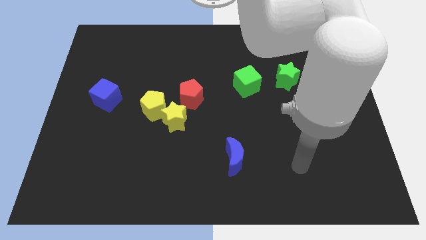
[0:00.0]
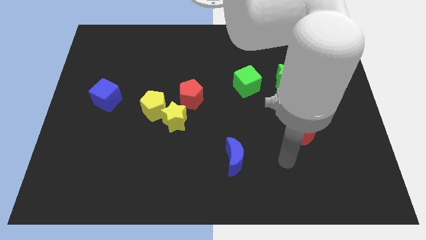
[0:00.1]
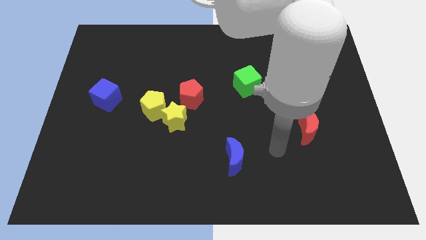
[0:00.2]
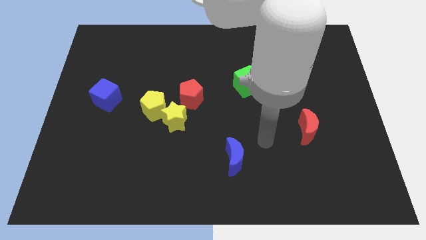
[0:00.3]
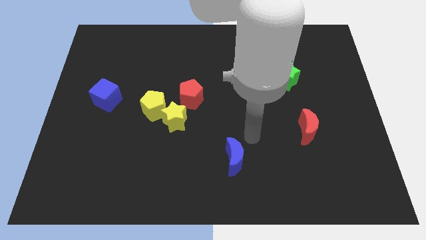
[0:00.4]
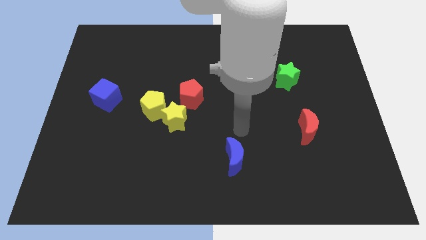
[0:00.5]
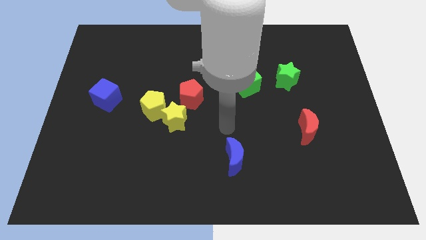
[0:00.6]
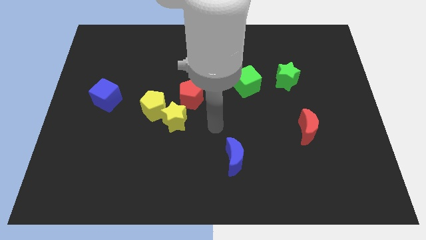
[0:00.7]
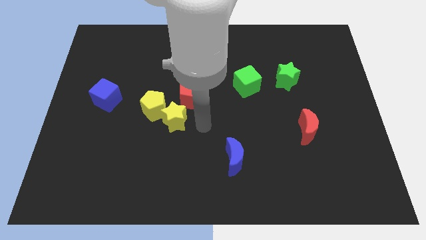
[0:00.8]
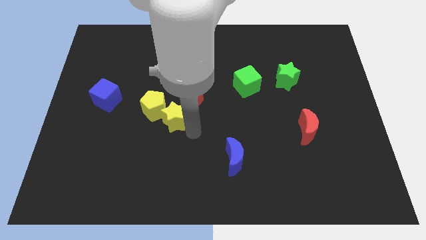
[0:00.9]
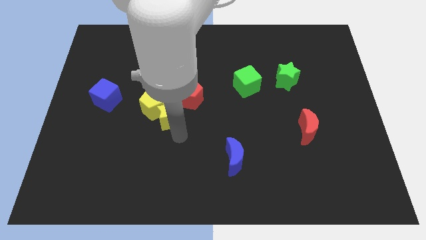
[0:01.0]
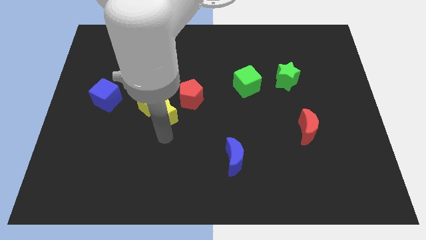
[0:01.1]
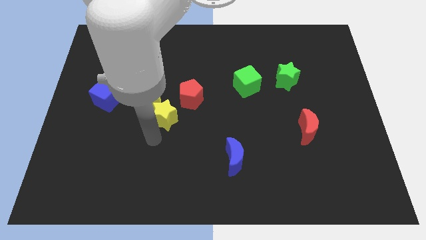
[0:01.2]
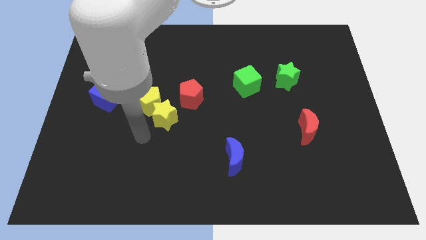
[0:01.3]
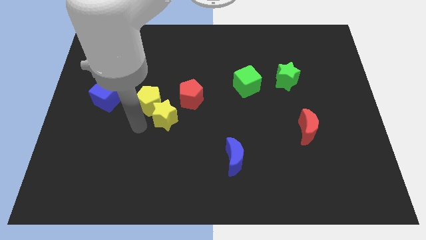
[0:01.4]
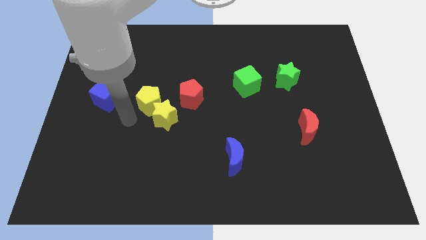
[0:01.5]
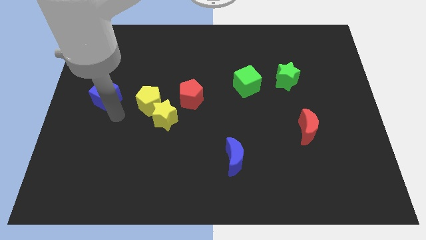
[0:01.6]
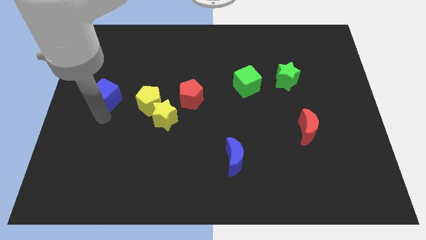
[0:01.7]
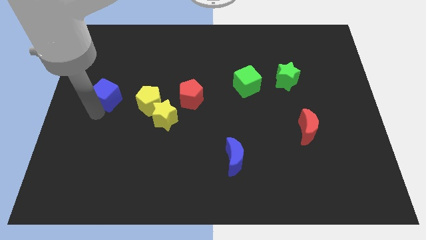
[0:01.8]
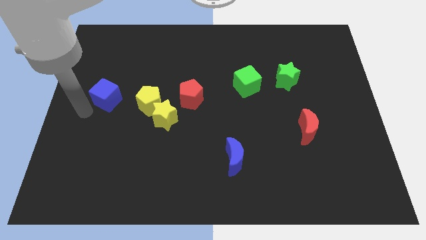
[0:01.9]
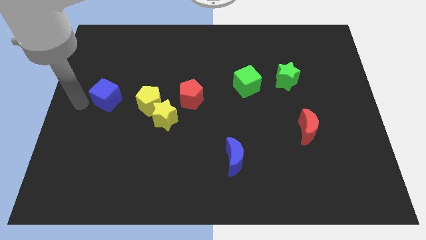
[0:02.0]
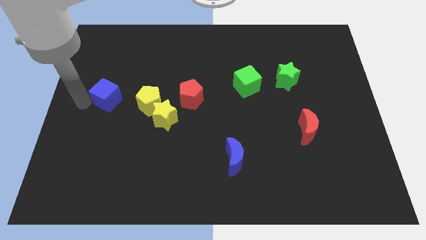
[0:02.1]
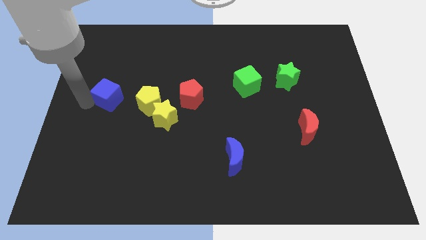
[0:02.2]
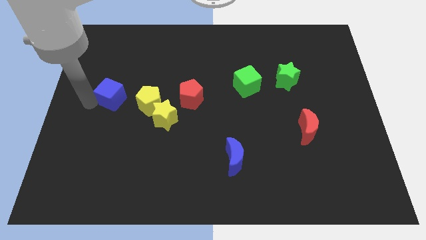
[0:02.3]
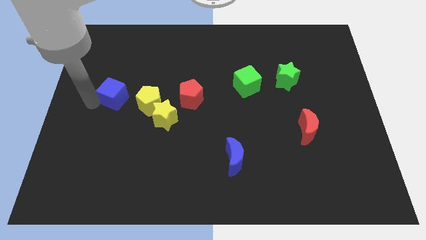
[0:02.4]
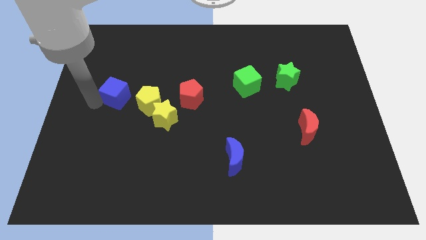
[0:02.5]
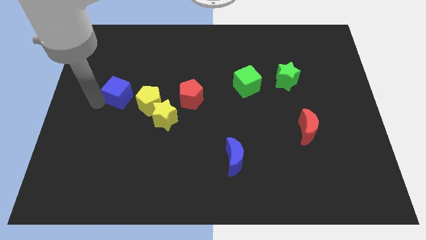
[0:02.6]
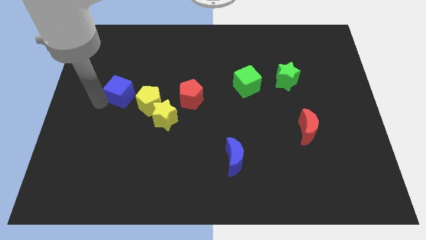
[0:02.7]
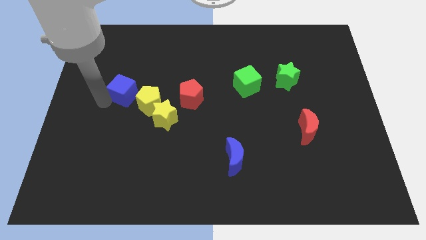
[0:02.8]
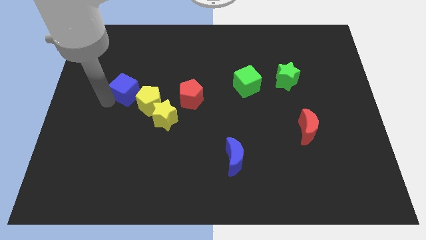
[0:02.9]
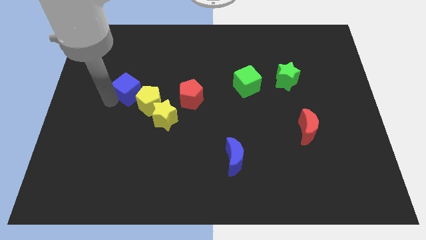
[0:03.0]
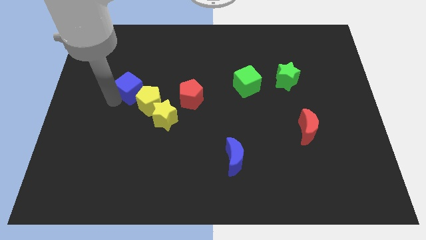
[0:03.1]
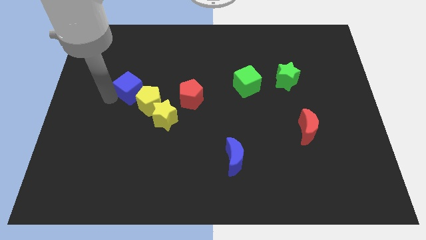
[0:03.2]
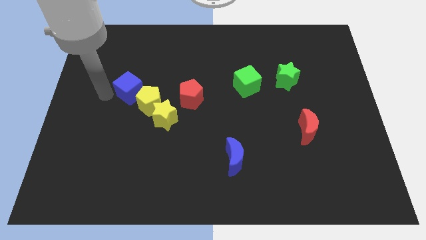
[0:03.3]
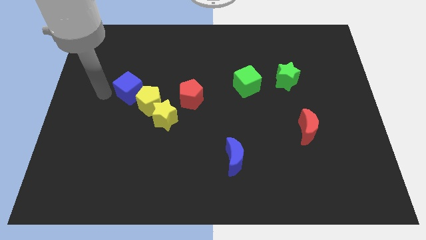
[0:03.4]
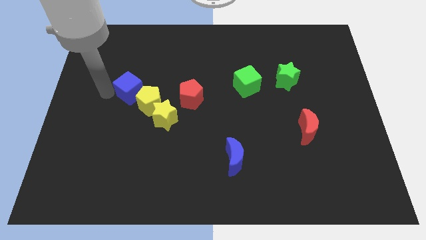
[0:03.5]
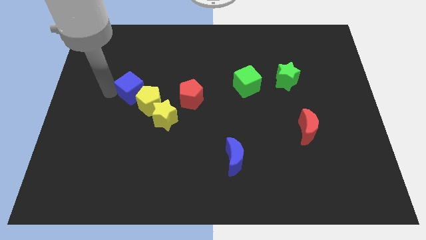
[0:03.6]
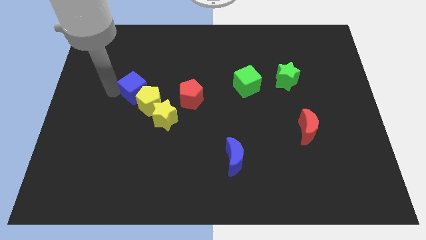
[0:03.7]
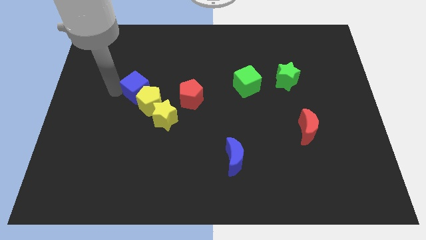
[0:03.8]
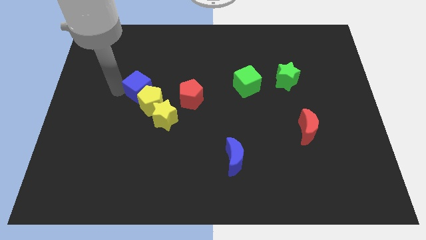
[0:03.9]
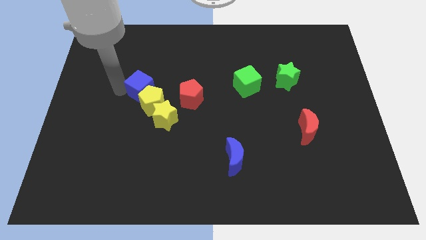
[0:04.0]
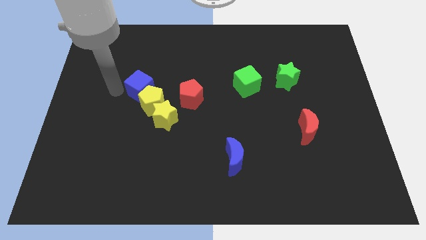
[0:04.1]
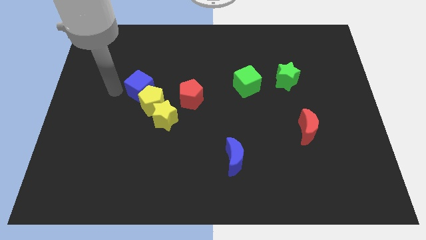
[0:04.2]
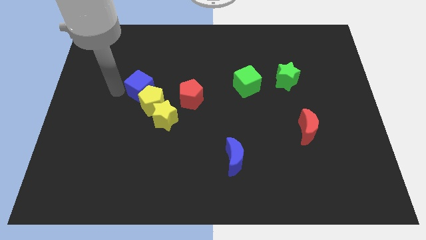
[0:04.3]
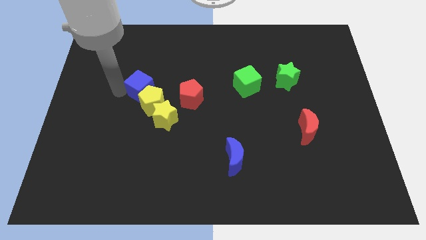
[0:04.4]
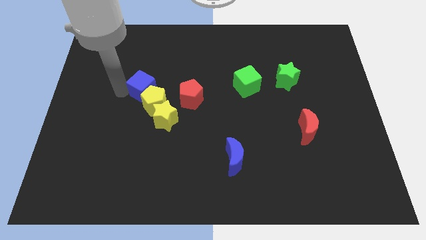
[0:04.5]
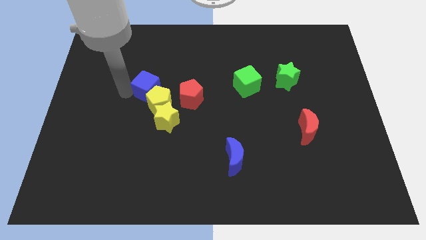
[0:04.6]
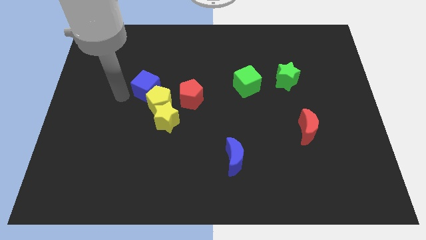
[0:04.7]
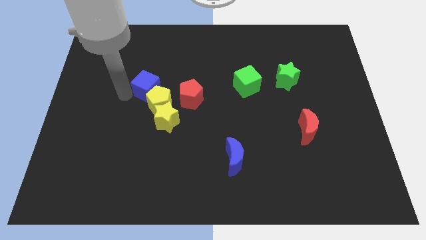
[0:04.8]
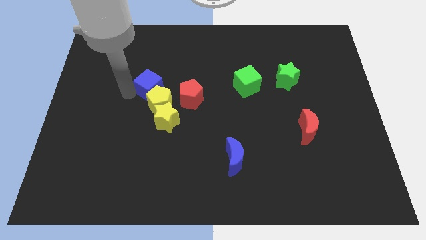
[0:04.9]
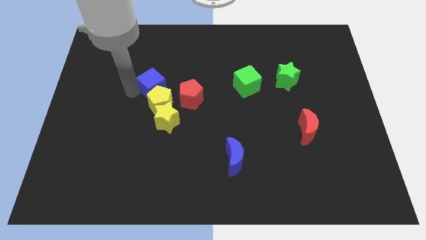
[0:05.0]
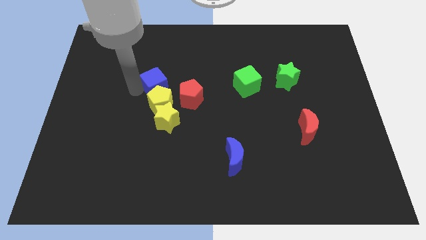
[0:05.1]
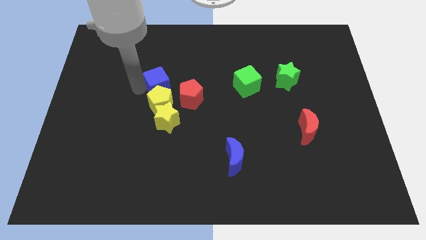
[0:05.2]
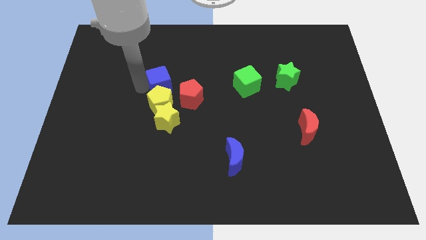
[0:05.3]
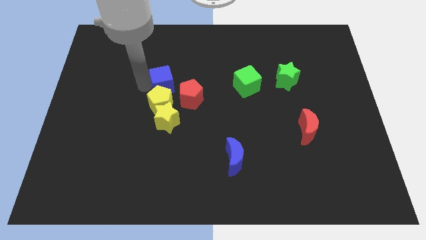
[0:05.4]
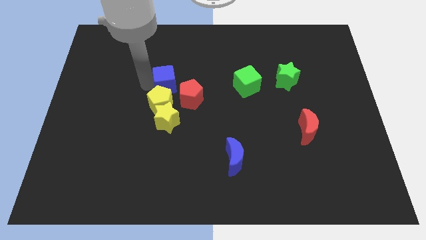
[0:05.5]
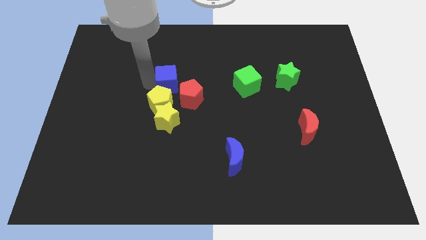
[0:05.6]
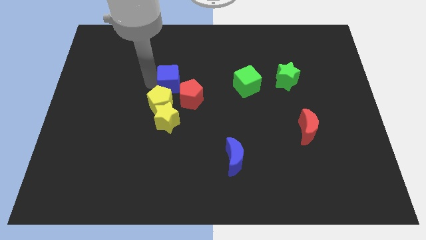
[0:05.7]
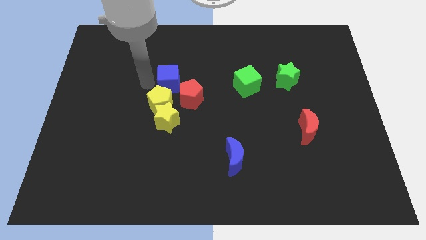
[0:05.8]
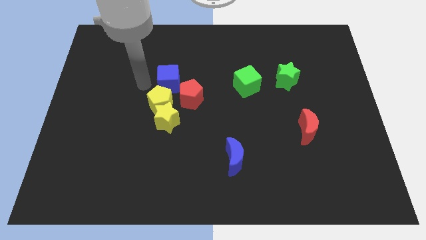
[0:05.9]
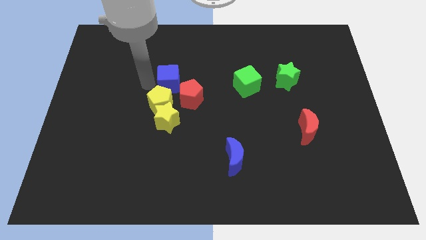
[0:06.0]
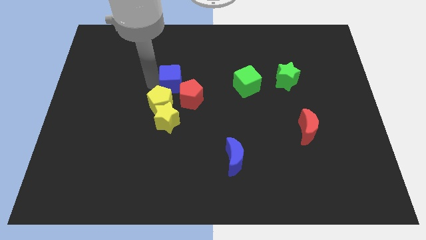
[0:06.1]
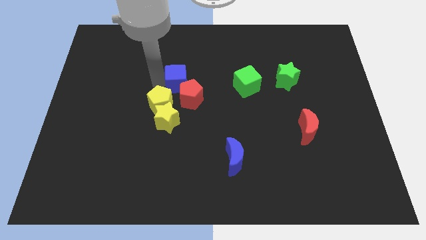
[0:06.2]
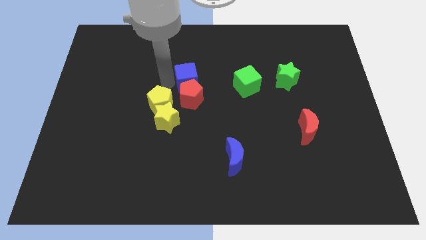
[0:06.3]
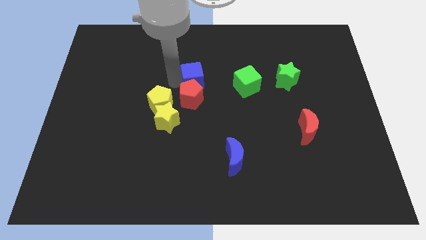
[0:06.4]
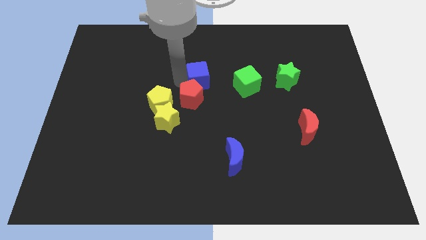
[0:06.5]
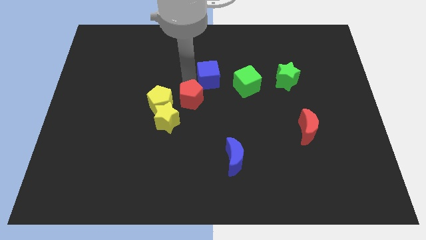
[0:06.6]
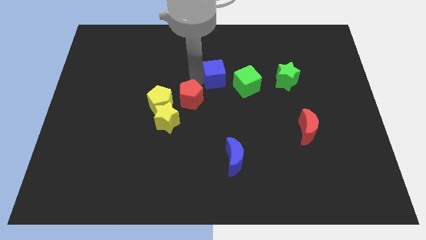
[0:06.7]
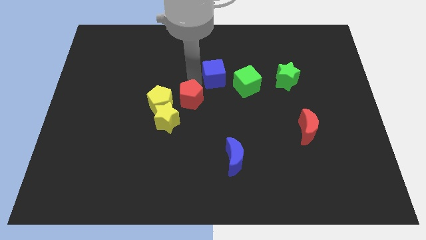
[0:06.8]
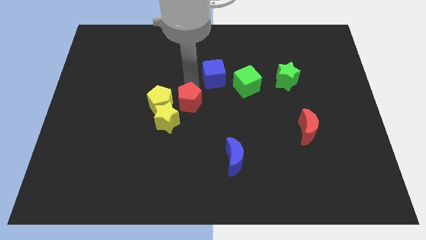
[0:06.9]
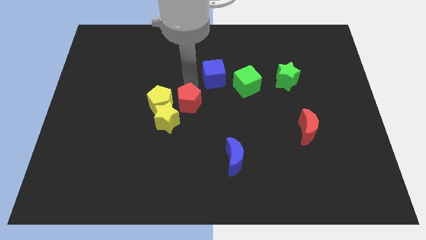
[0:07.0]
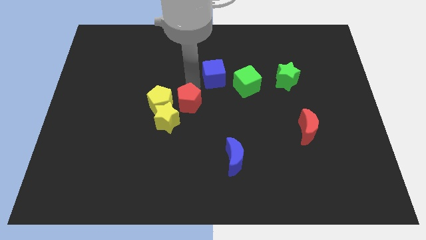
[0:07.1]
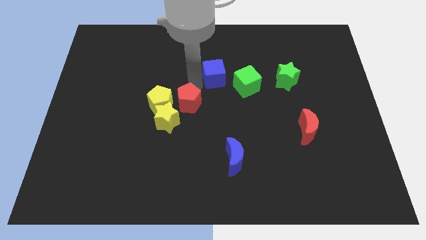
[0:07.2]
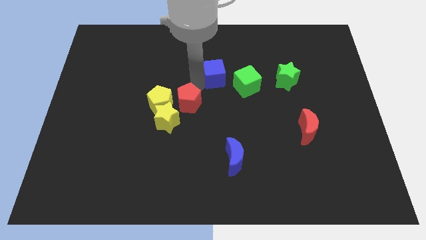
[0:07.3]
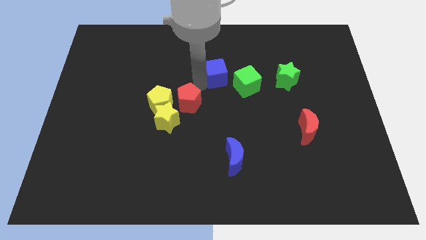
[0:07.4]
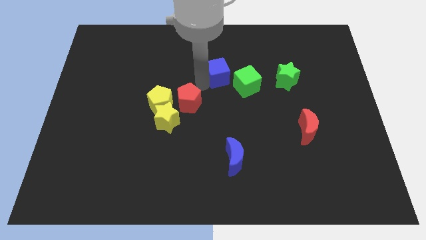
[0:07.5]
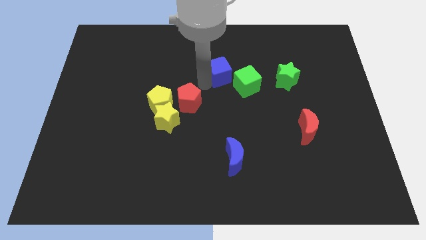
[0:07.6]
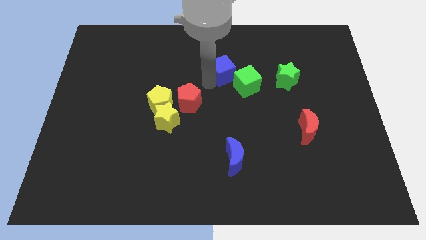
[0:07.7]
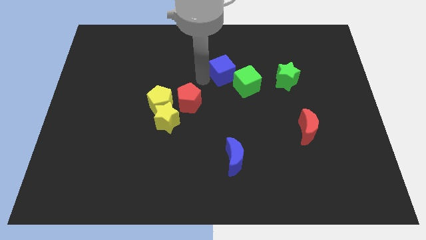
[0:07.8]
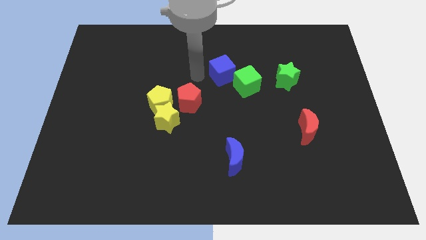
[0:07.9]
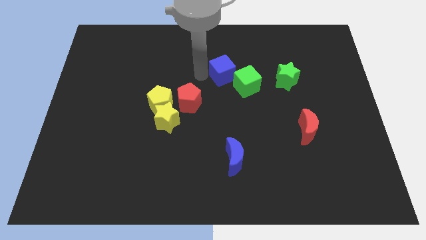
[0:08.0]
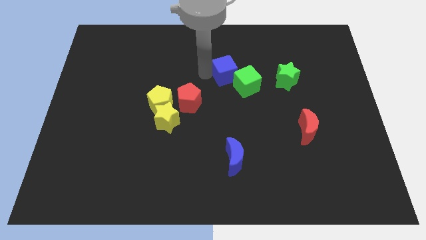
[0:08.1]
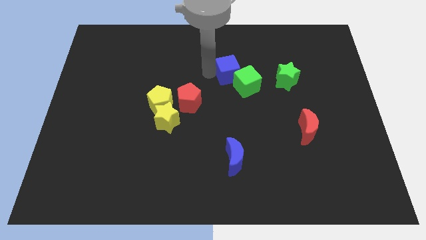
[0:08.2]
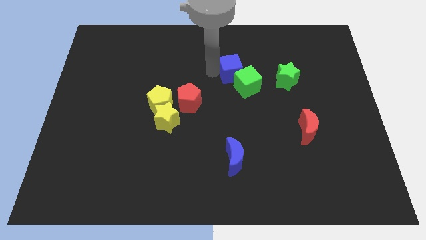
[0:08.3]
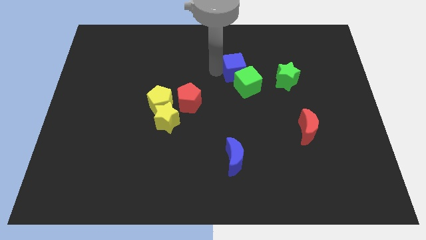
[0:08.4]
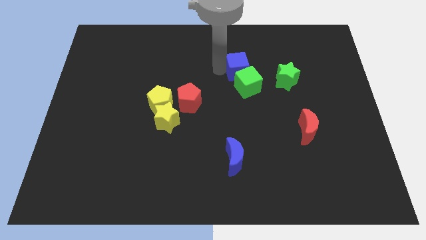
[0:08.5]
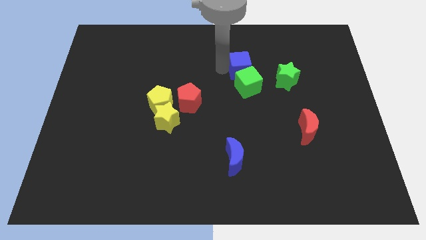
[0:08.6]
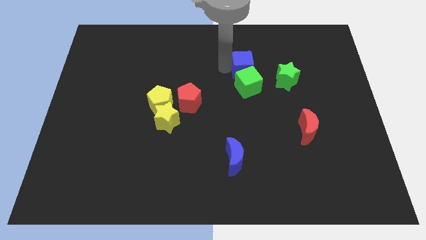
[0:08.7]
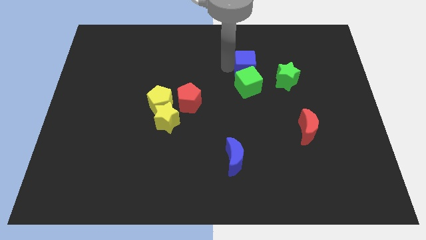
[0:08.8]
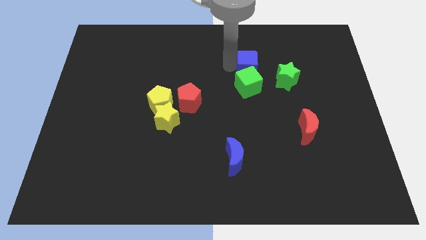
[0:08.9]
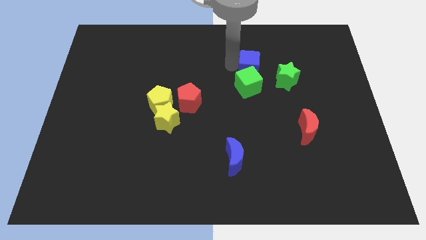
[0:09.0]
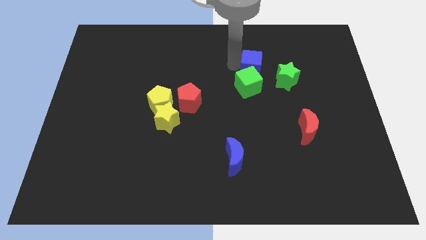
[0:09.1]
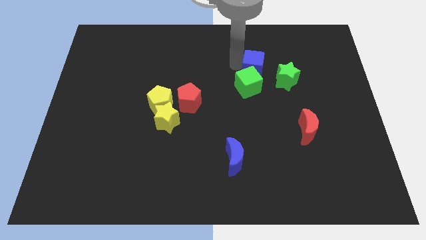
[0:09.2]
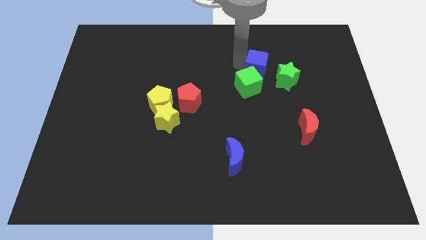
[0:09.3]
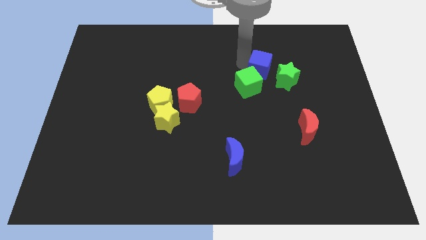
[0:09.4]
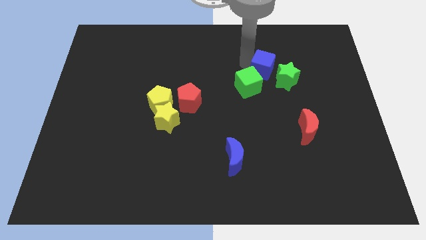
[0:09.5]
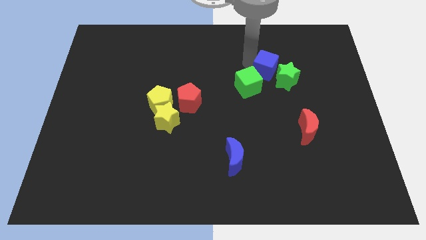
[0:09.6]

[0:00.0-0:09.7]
put the blue cube towards the green star
